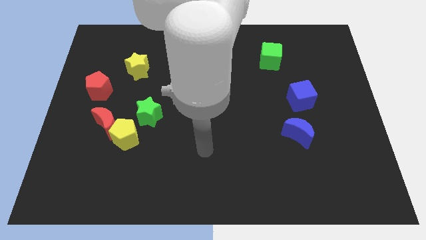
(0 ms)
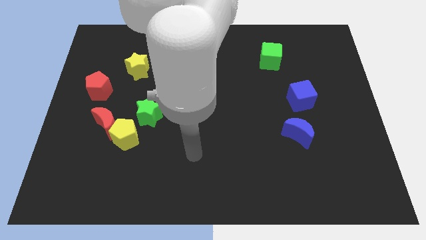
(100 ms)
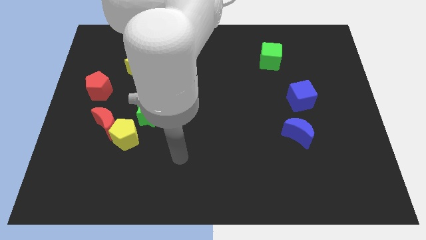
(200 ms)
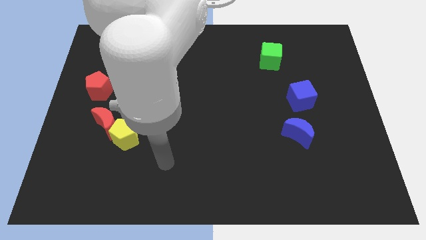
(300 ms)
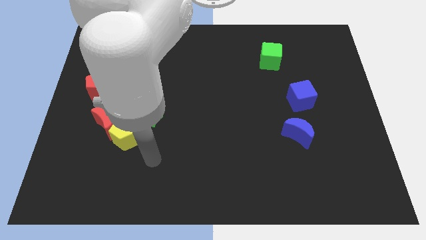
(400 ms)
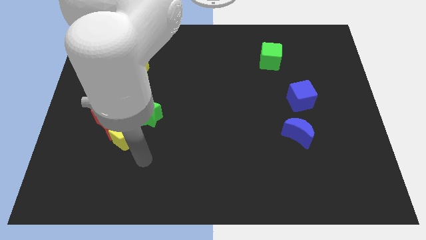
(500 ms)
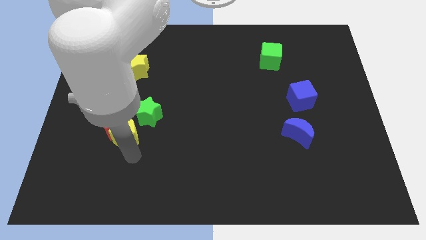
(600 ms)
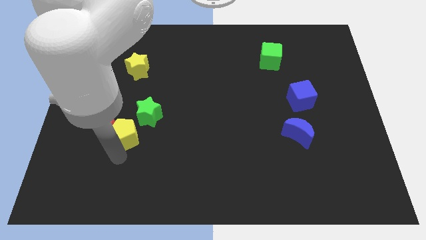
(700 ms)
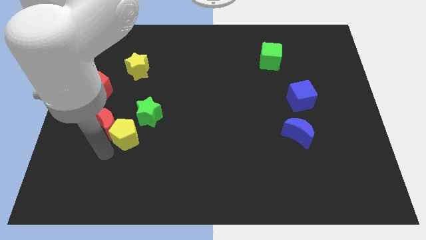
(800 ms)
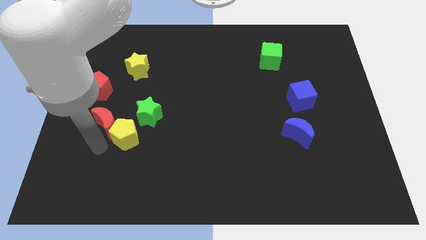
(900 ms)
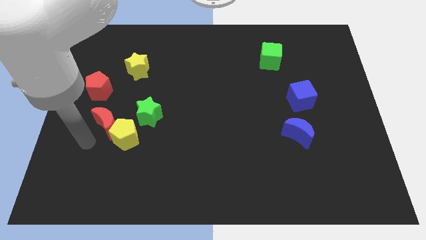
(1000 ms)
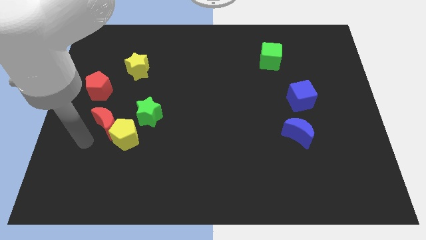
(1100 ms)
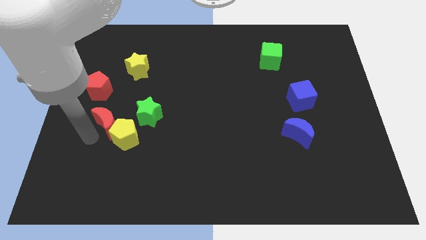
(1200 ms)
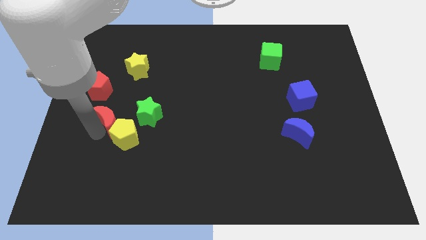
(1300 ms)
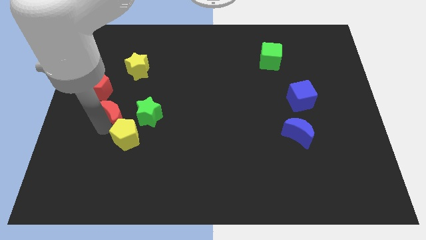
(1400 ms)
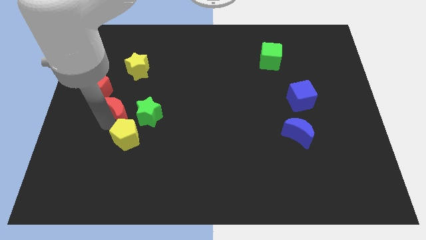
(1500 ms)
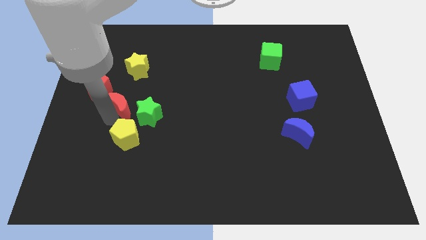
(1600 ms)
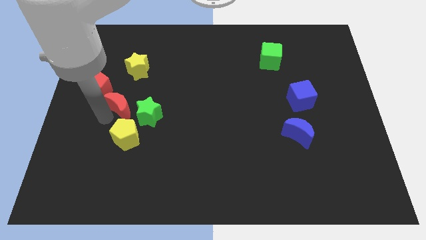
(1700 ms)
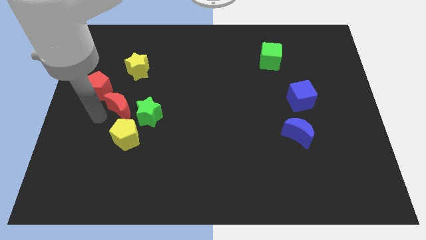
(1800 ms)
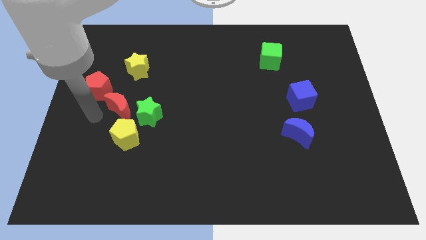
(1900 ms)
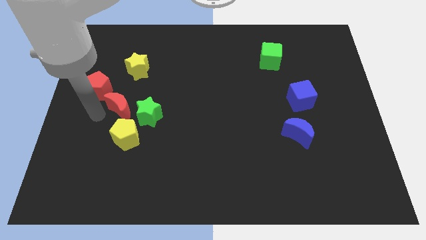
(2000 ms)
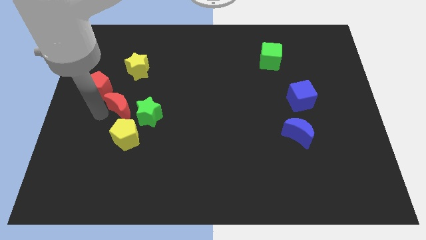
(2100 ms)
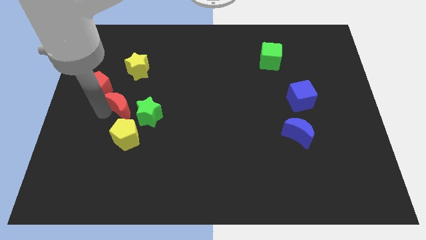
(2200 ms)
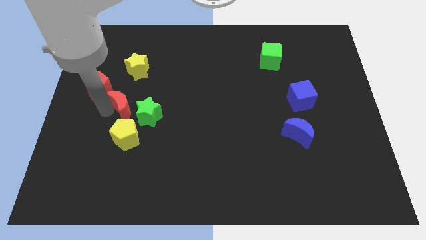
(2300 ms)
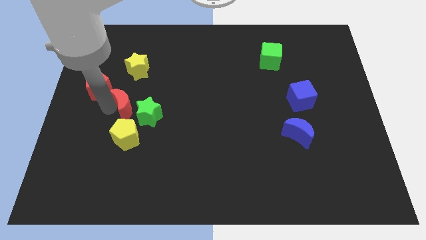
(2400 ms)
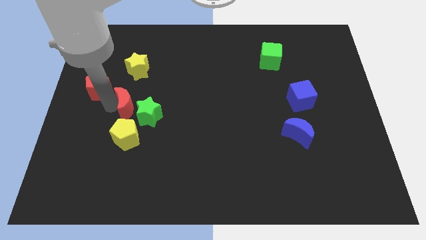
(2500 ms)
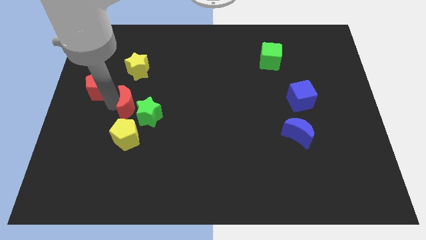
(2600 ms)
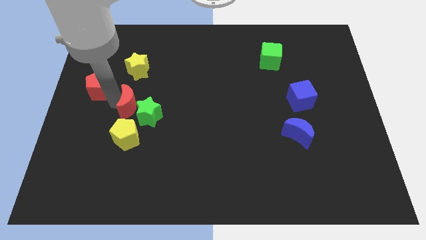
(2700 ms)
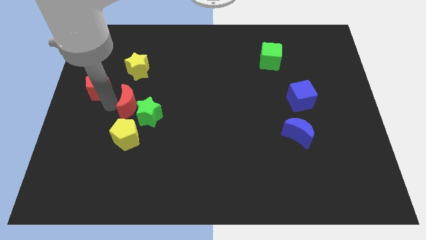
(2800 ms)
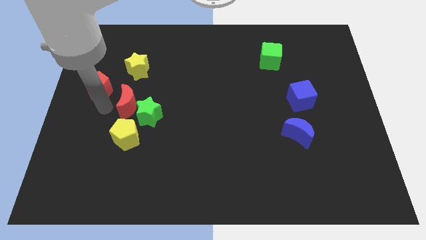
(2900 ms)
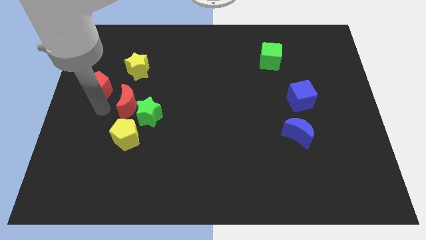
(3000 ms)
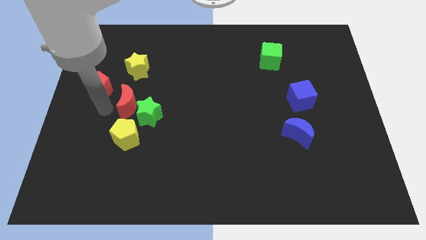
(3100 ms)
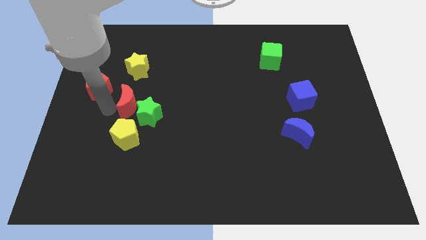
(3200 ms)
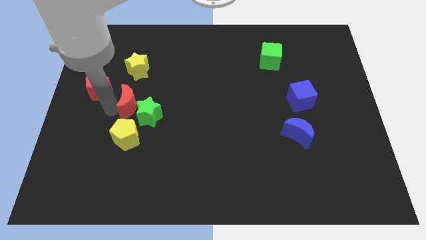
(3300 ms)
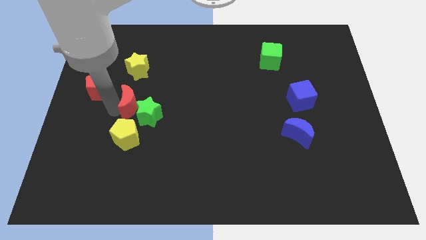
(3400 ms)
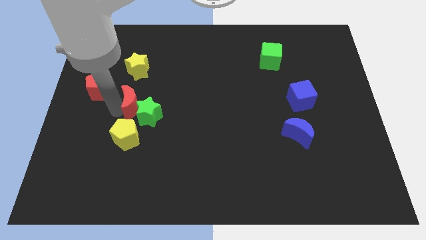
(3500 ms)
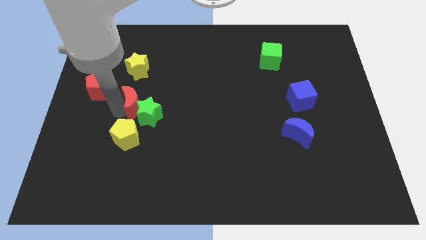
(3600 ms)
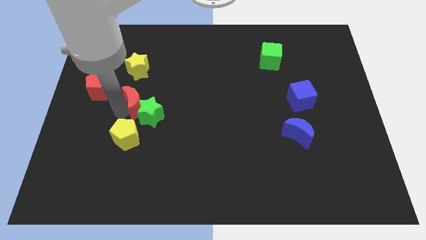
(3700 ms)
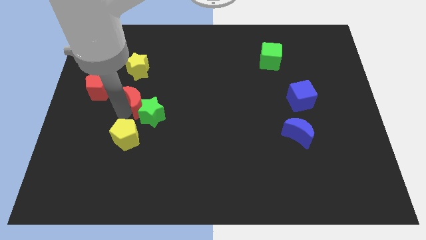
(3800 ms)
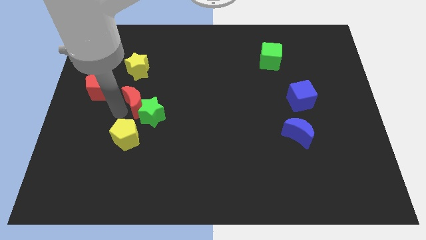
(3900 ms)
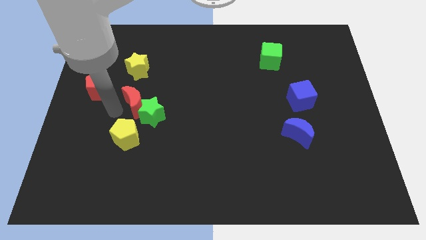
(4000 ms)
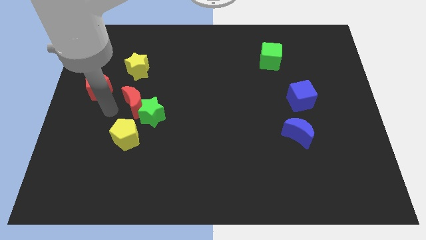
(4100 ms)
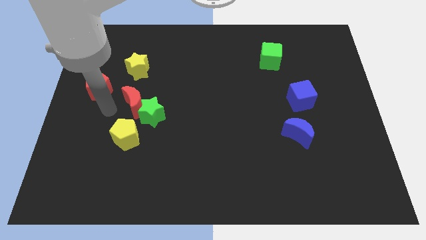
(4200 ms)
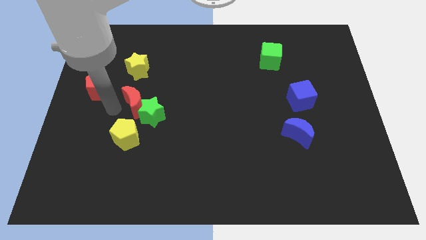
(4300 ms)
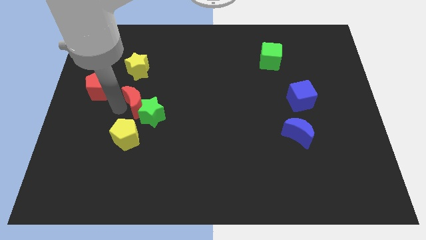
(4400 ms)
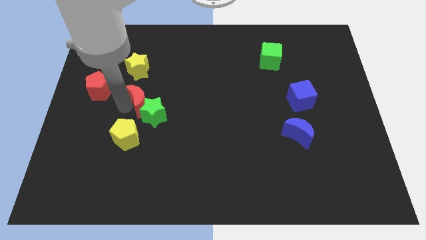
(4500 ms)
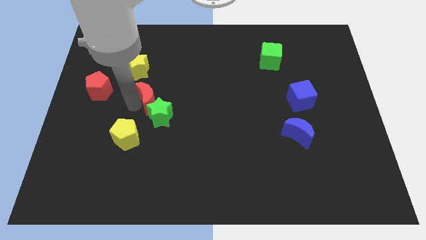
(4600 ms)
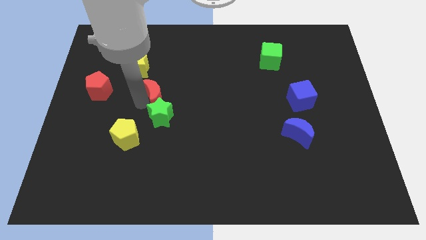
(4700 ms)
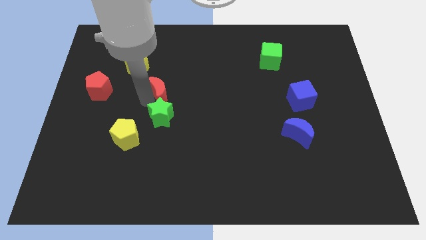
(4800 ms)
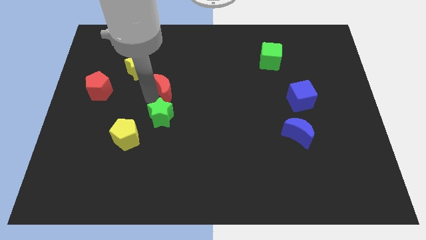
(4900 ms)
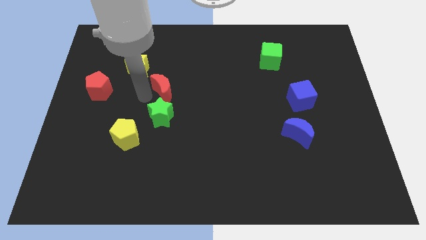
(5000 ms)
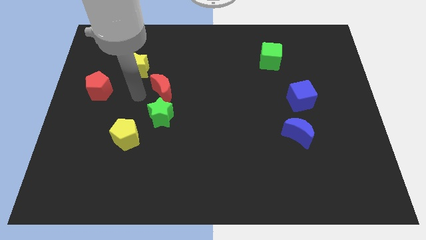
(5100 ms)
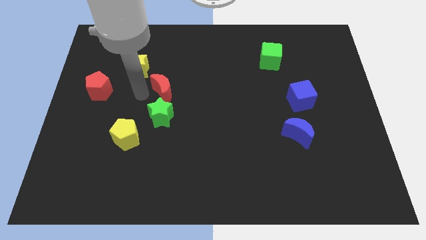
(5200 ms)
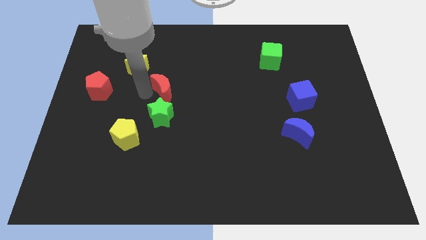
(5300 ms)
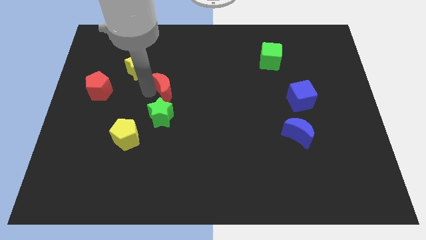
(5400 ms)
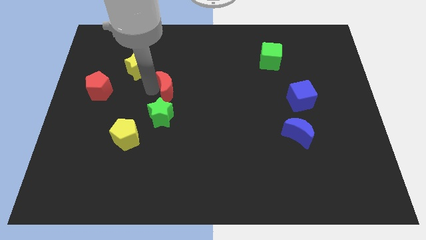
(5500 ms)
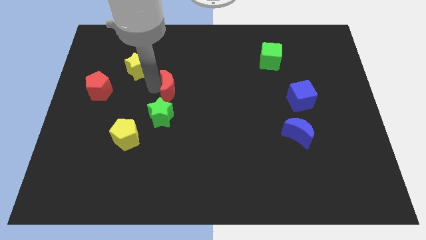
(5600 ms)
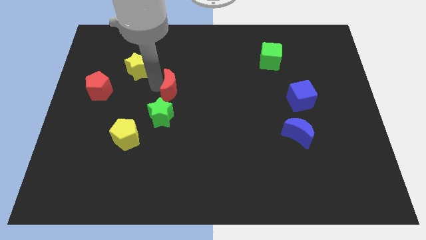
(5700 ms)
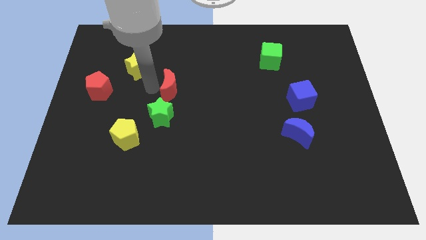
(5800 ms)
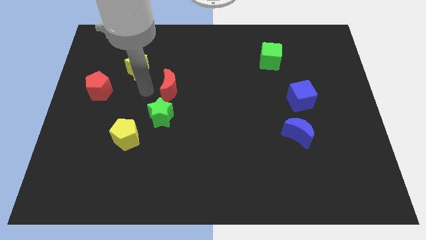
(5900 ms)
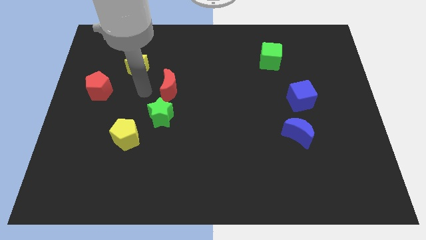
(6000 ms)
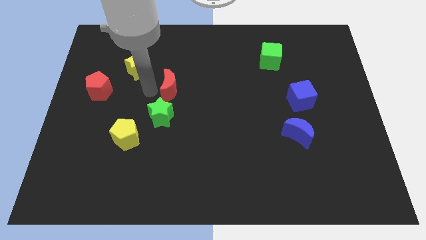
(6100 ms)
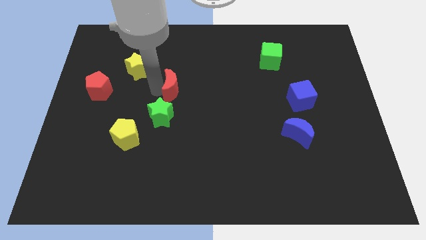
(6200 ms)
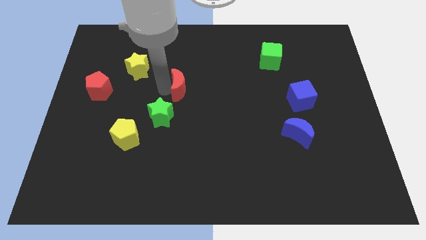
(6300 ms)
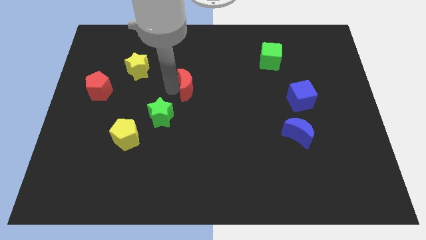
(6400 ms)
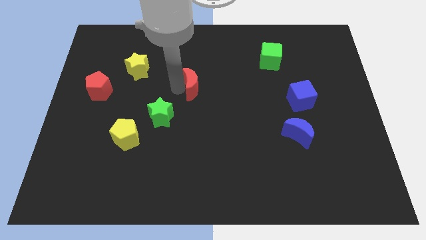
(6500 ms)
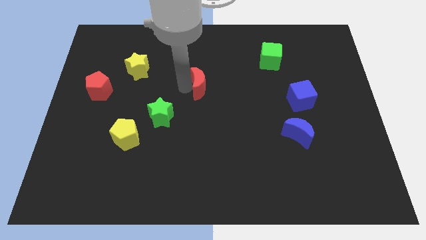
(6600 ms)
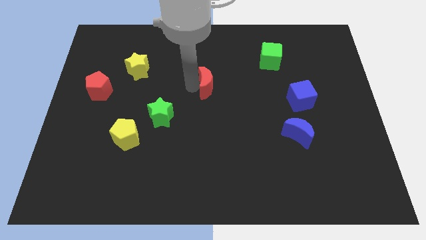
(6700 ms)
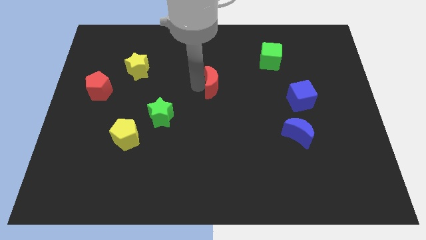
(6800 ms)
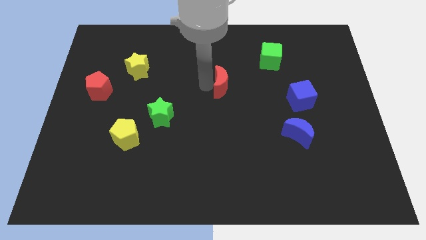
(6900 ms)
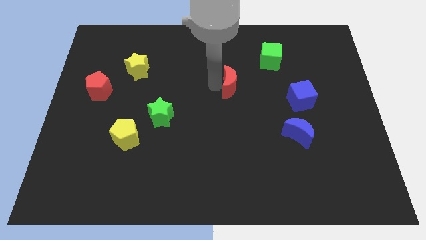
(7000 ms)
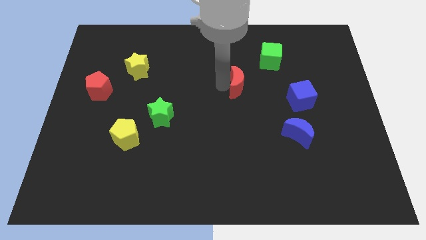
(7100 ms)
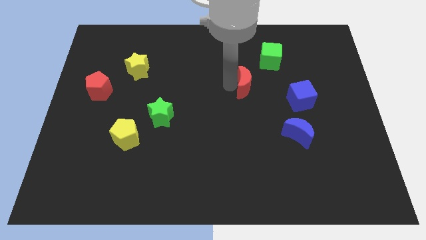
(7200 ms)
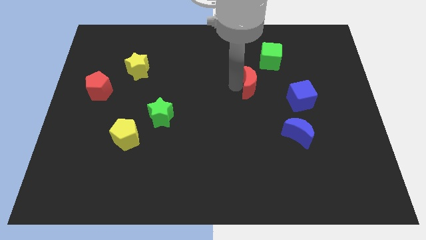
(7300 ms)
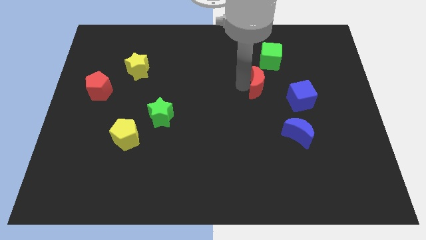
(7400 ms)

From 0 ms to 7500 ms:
slide the red moon to the bottom side of the green cube

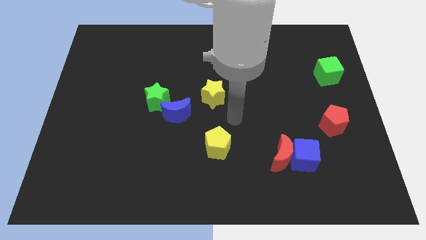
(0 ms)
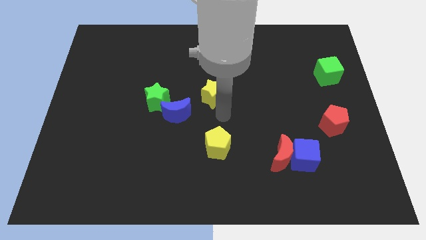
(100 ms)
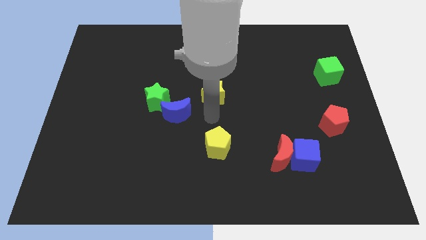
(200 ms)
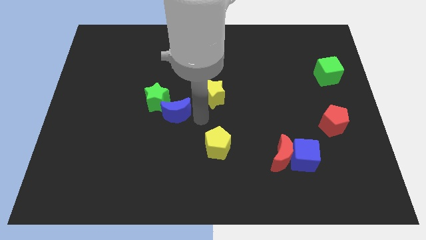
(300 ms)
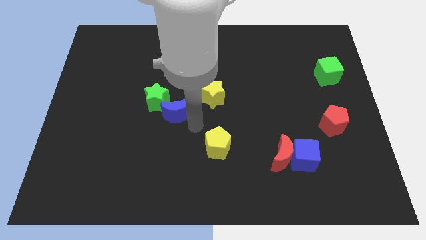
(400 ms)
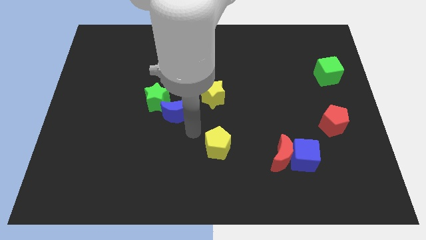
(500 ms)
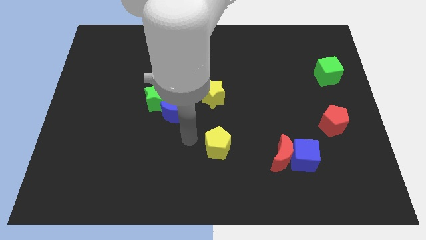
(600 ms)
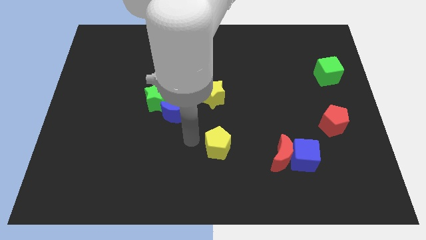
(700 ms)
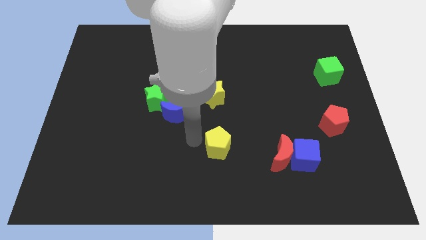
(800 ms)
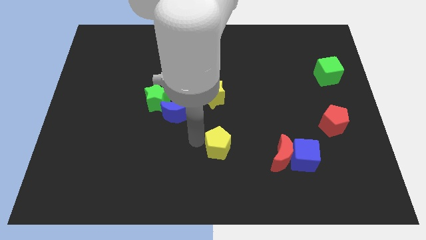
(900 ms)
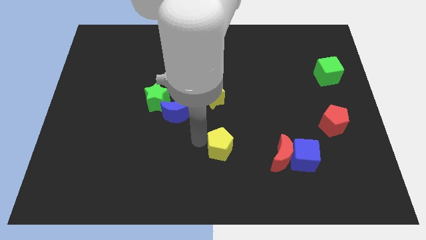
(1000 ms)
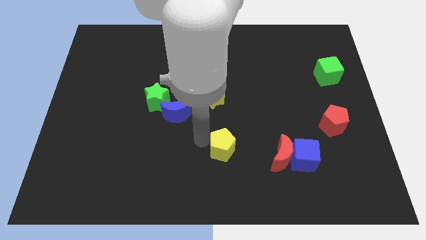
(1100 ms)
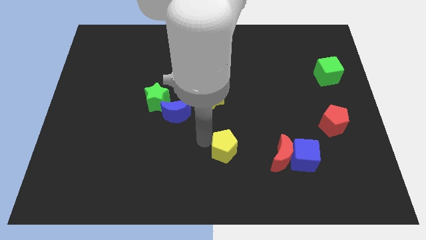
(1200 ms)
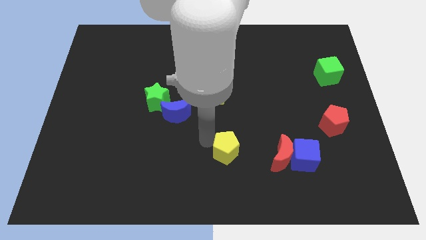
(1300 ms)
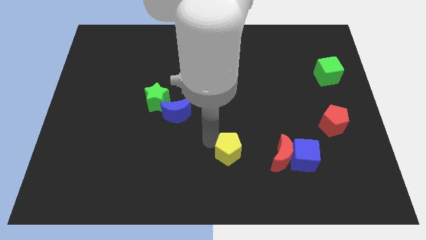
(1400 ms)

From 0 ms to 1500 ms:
push the yellow pentagon left of the blue cube
